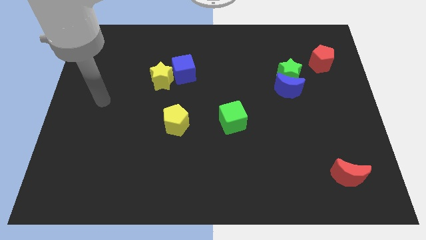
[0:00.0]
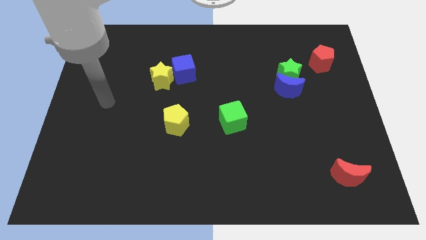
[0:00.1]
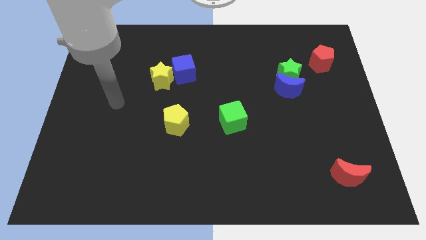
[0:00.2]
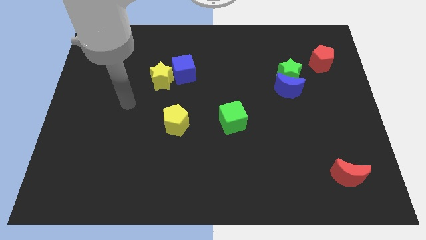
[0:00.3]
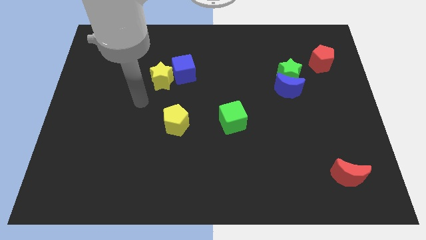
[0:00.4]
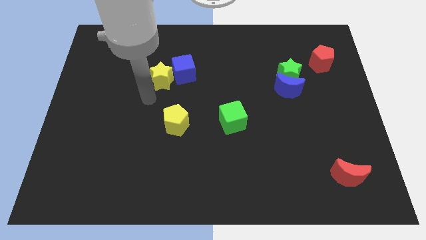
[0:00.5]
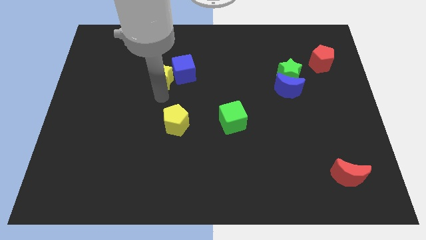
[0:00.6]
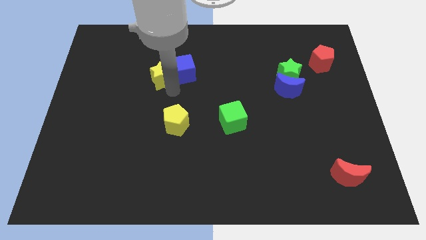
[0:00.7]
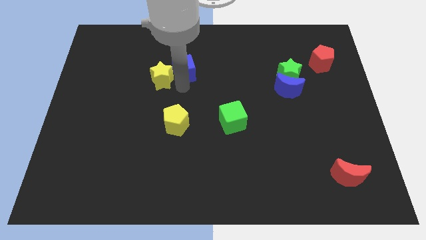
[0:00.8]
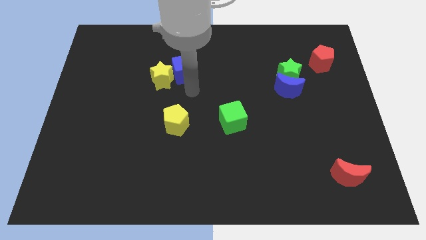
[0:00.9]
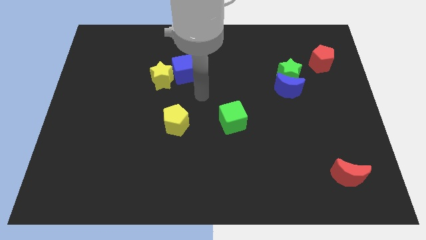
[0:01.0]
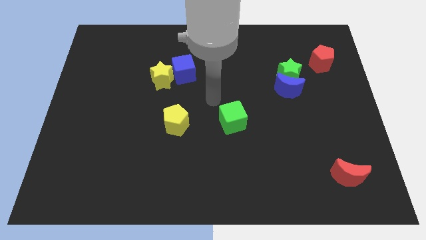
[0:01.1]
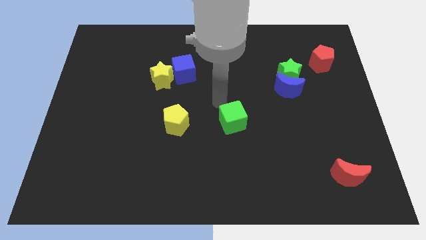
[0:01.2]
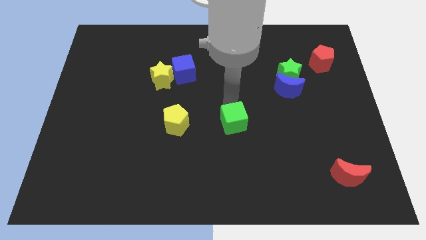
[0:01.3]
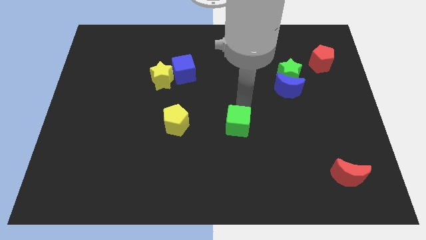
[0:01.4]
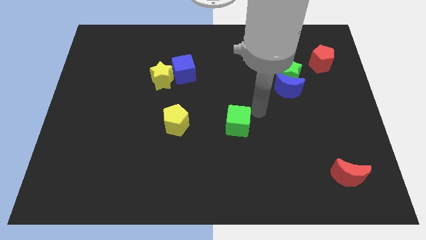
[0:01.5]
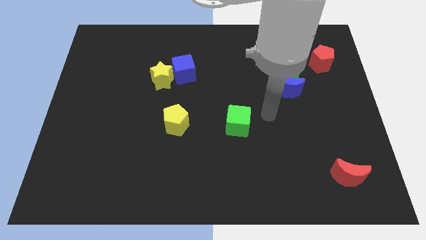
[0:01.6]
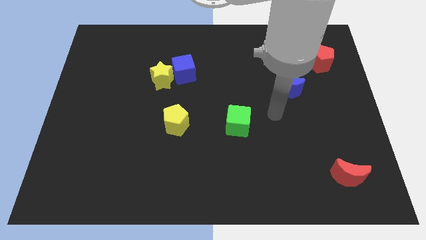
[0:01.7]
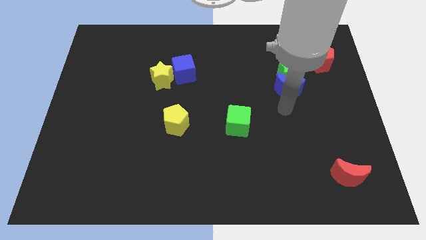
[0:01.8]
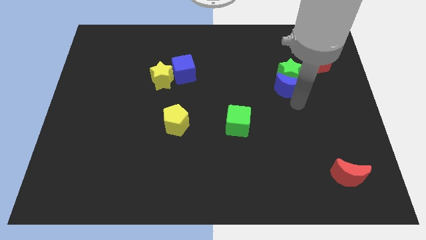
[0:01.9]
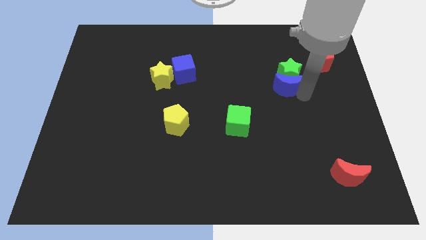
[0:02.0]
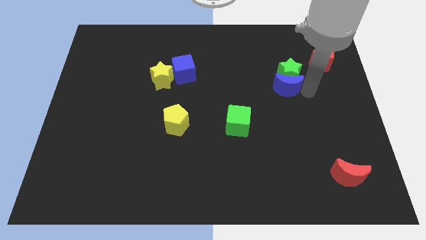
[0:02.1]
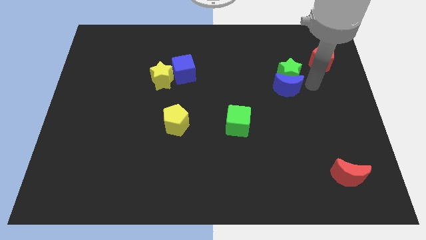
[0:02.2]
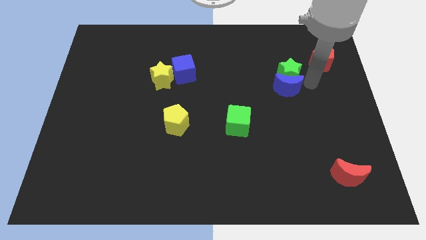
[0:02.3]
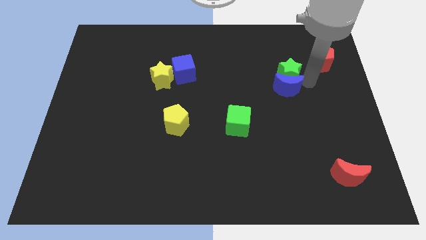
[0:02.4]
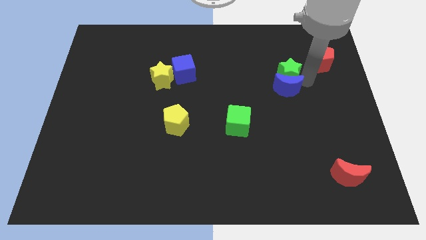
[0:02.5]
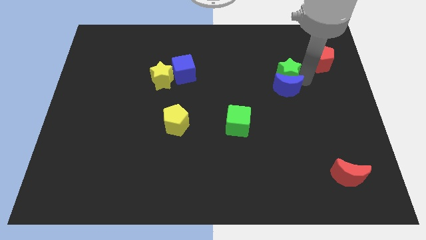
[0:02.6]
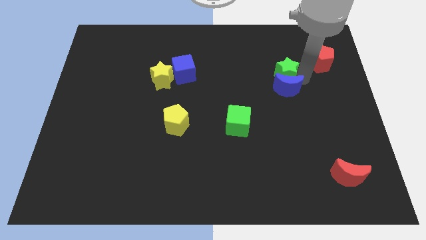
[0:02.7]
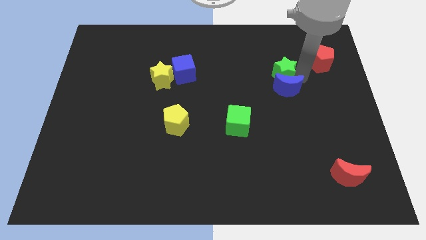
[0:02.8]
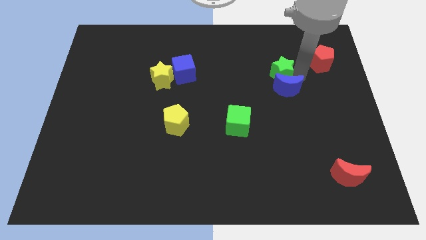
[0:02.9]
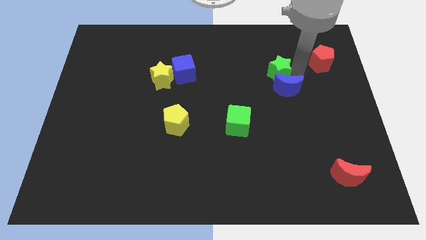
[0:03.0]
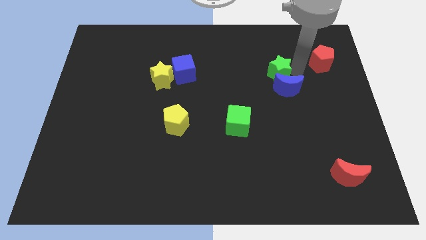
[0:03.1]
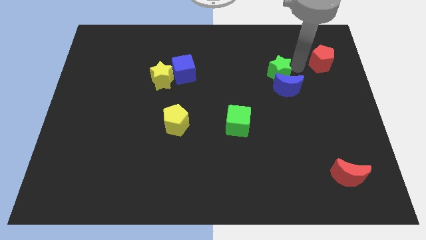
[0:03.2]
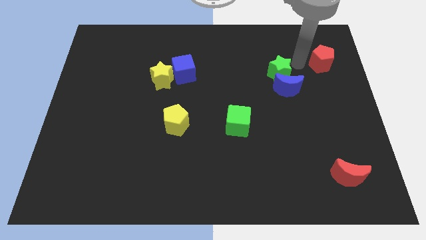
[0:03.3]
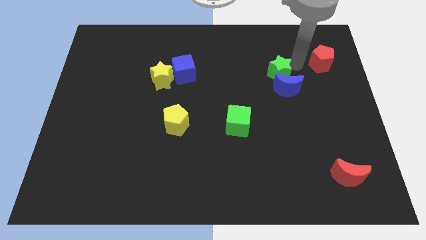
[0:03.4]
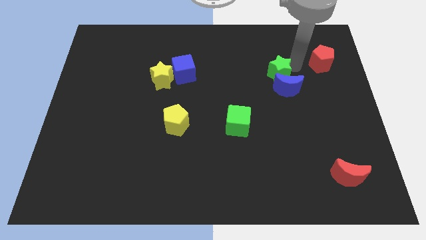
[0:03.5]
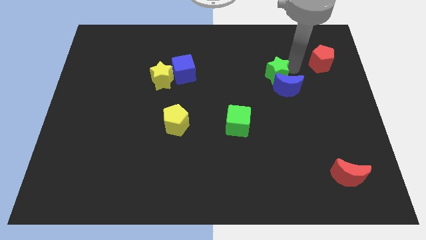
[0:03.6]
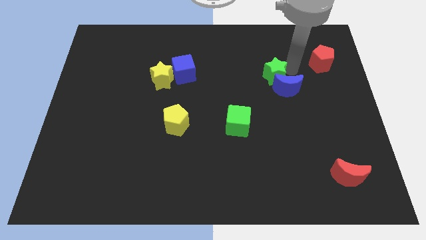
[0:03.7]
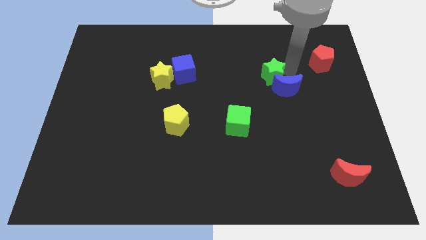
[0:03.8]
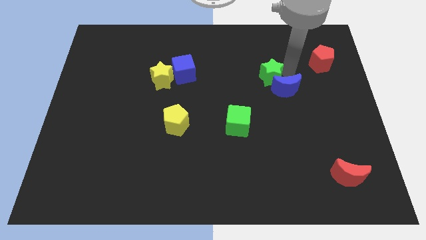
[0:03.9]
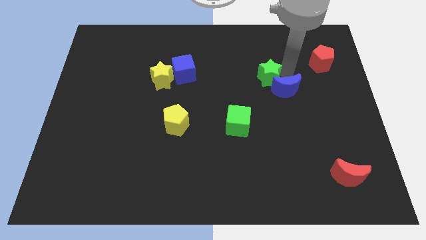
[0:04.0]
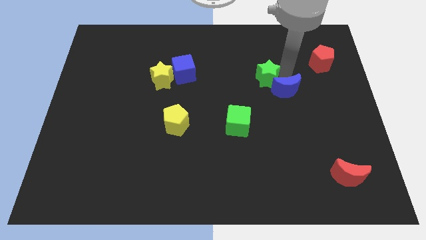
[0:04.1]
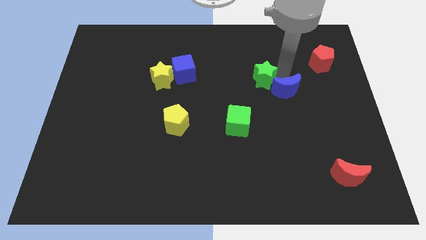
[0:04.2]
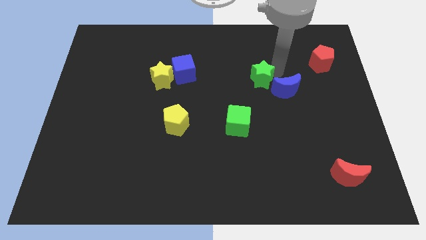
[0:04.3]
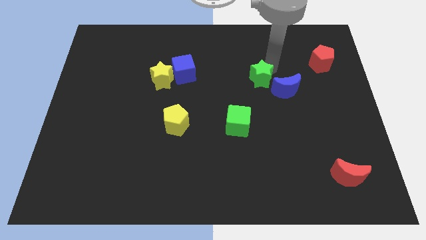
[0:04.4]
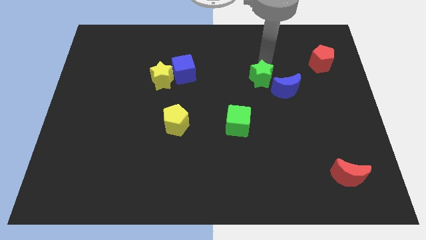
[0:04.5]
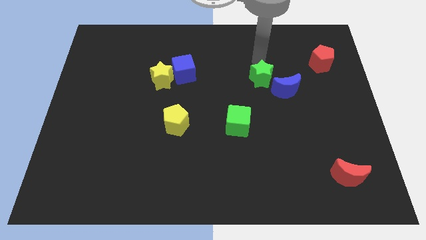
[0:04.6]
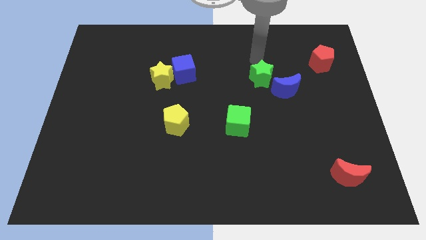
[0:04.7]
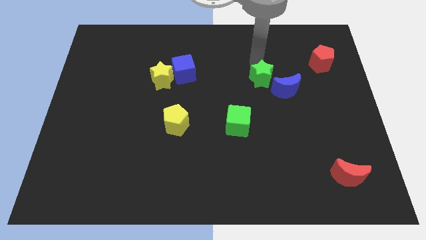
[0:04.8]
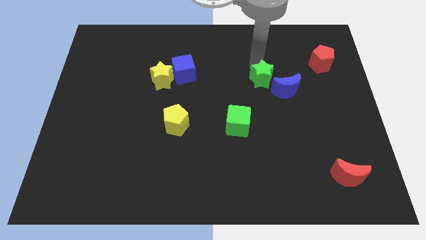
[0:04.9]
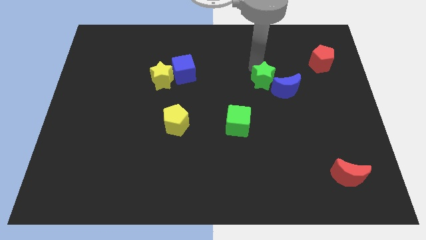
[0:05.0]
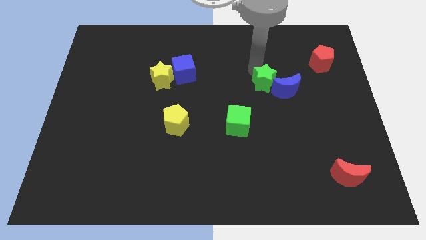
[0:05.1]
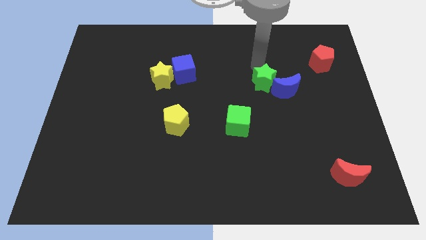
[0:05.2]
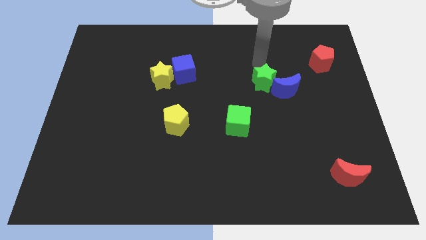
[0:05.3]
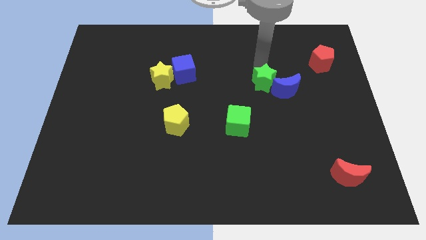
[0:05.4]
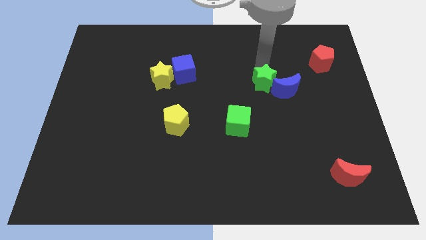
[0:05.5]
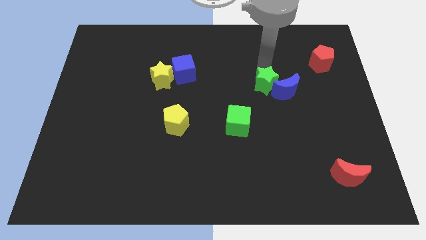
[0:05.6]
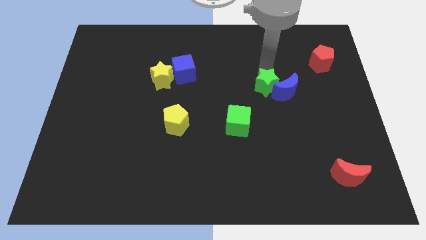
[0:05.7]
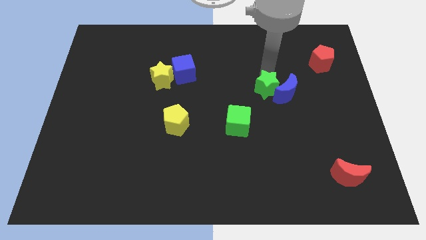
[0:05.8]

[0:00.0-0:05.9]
push the green star to the bottom left of the blue moon

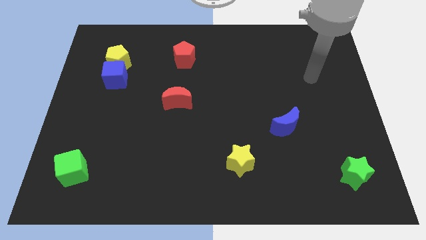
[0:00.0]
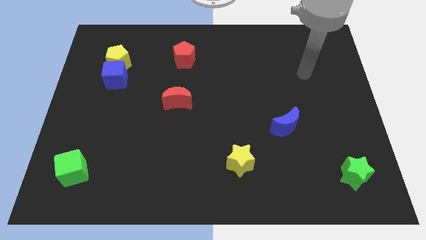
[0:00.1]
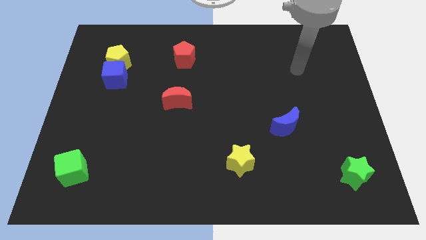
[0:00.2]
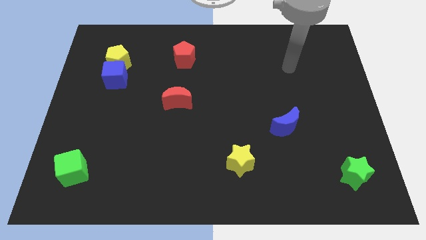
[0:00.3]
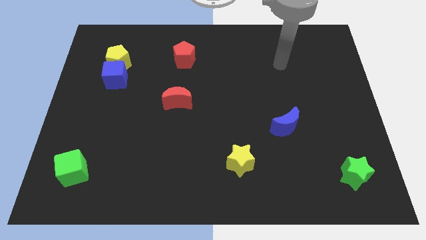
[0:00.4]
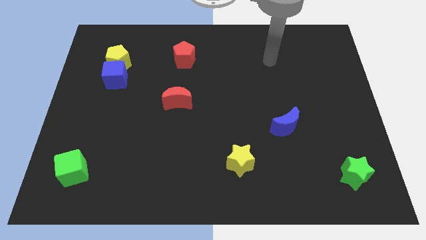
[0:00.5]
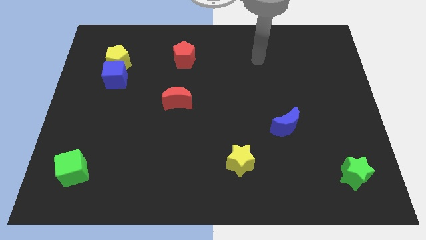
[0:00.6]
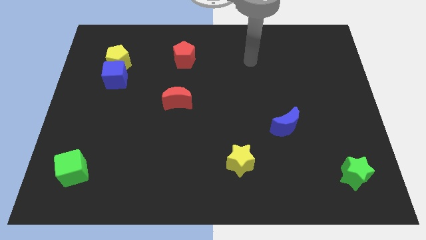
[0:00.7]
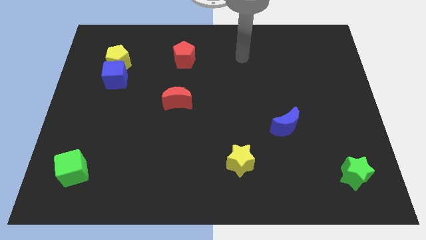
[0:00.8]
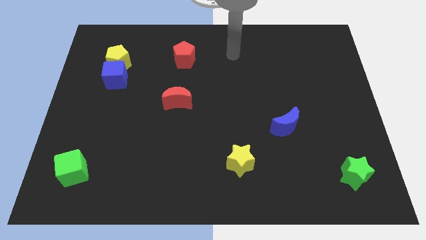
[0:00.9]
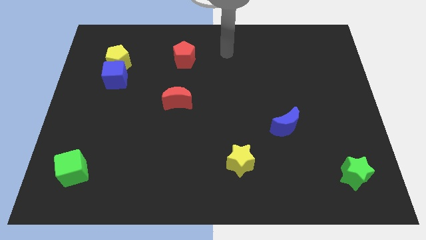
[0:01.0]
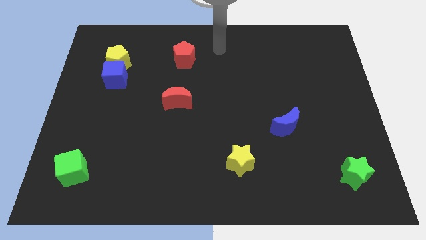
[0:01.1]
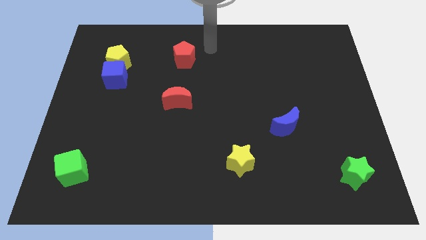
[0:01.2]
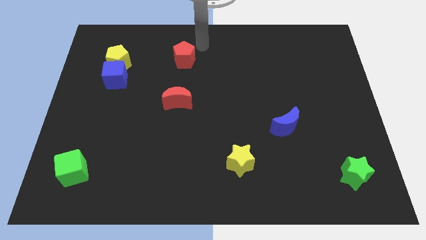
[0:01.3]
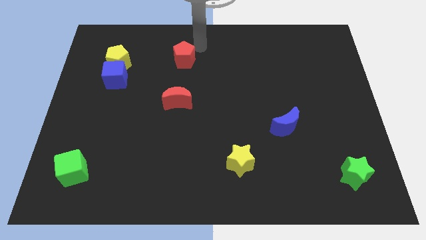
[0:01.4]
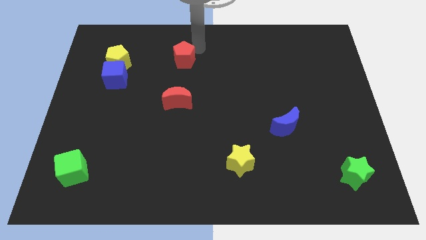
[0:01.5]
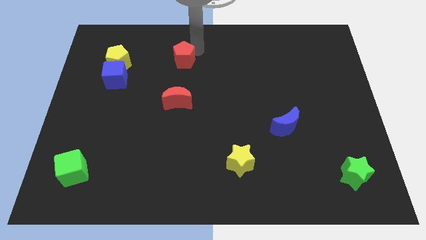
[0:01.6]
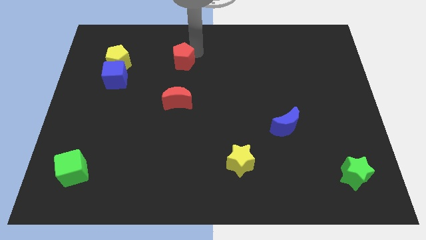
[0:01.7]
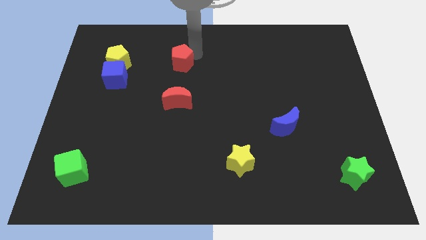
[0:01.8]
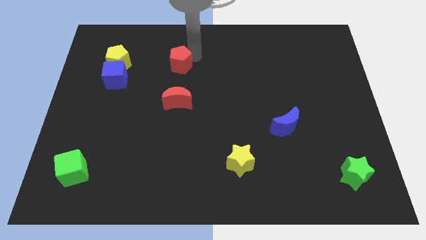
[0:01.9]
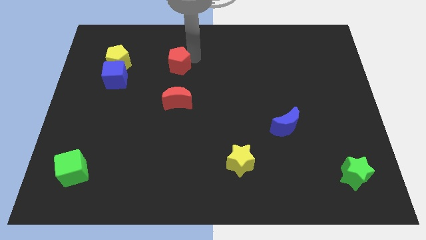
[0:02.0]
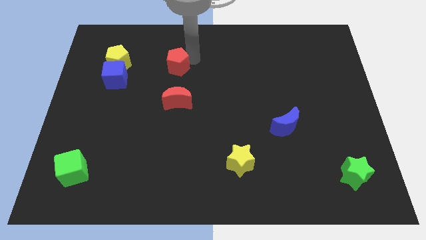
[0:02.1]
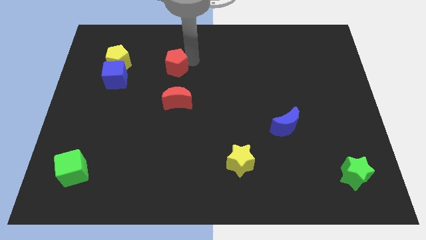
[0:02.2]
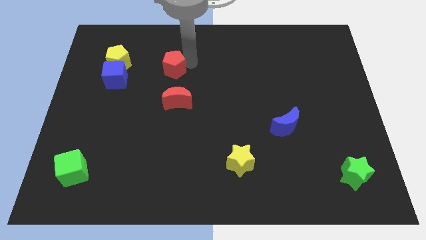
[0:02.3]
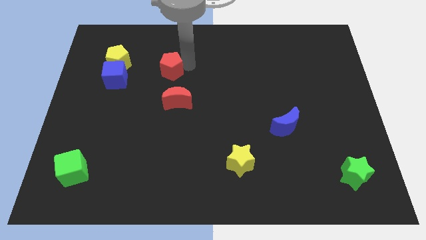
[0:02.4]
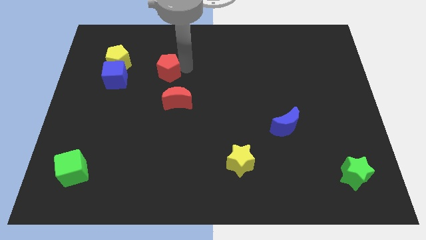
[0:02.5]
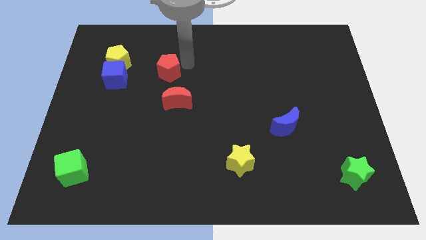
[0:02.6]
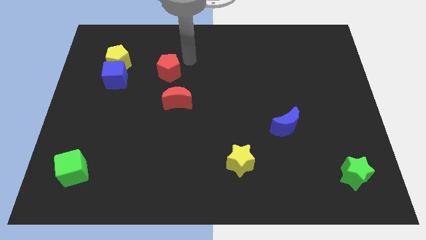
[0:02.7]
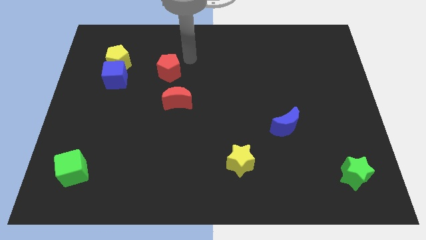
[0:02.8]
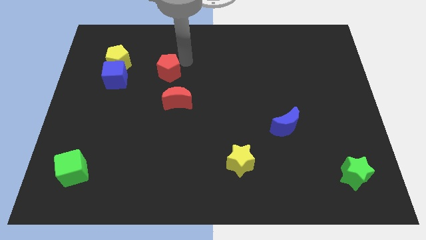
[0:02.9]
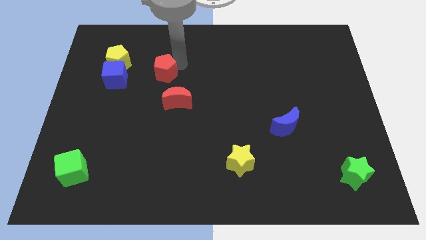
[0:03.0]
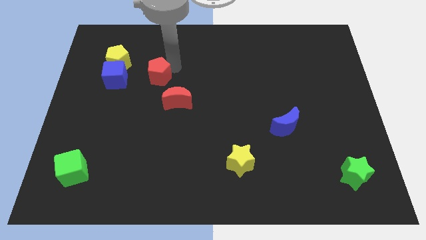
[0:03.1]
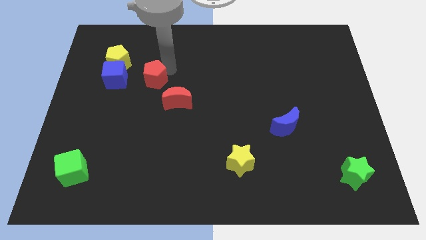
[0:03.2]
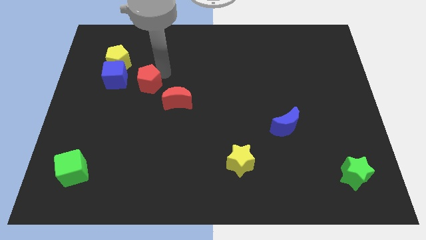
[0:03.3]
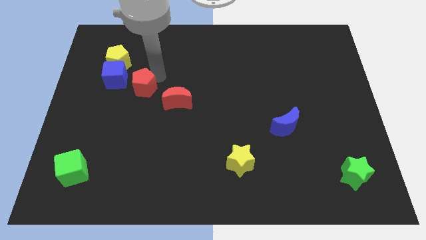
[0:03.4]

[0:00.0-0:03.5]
put the red pentagon diagonally down and to the right of the blue cube
